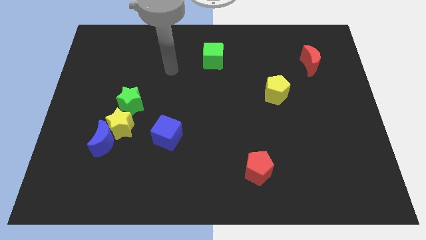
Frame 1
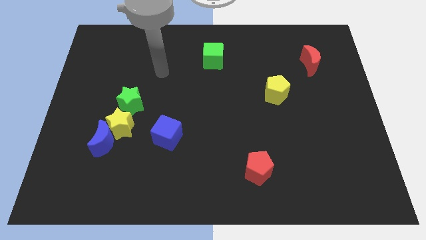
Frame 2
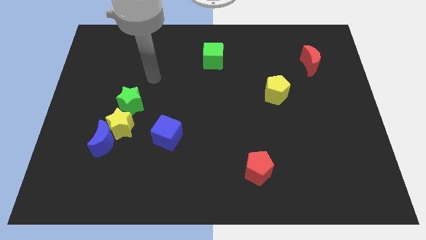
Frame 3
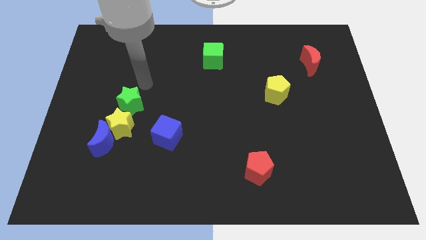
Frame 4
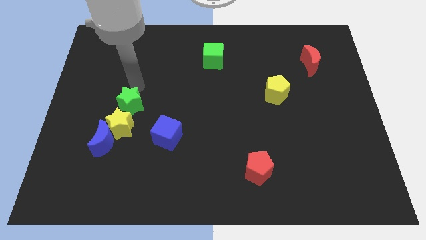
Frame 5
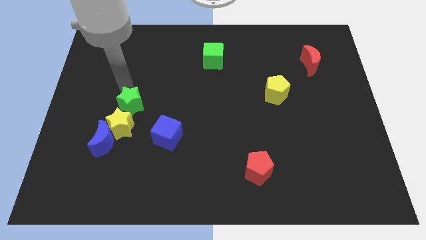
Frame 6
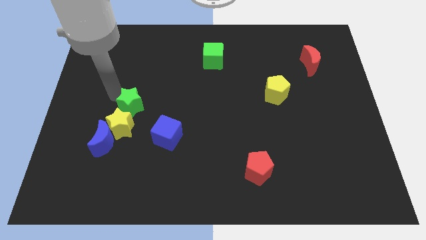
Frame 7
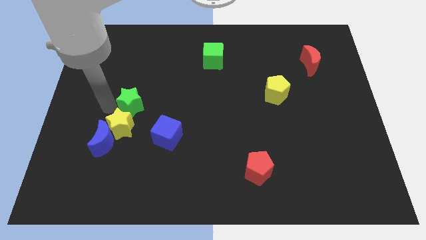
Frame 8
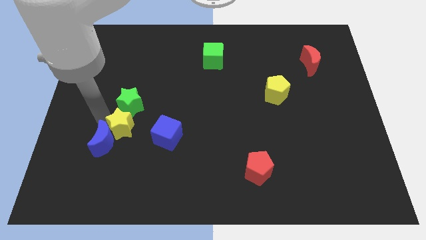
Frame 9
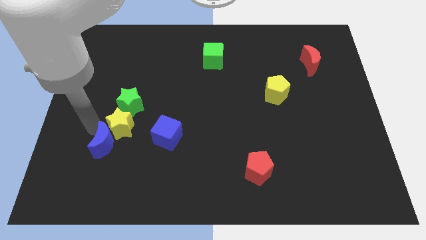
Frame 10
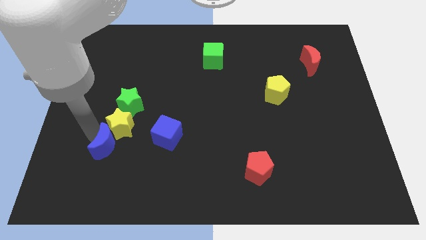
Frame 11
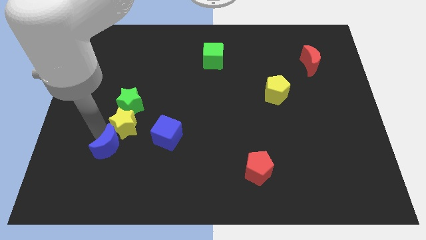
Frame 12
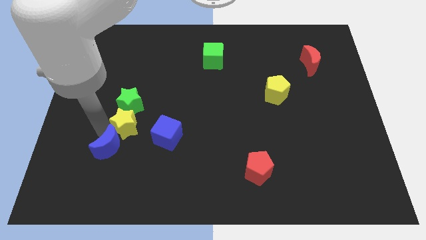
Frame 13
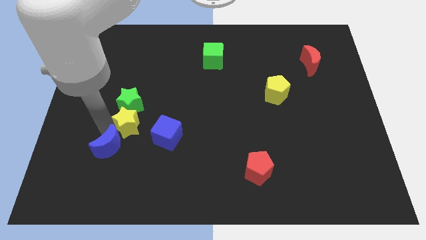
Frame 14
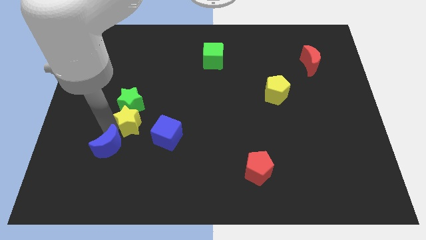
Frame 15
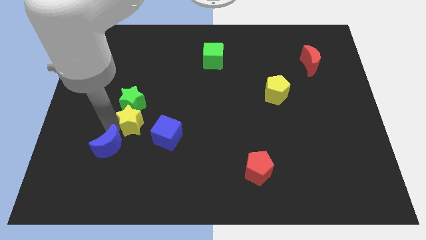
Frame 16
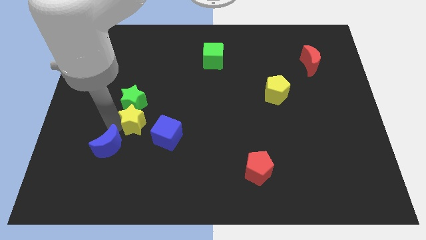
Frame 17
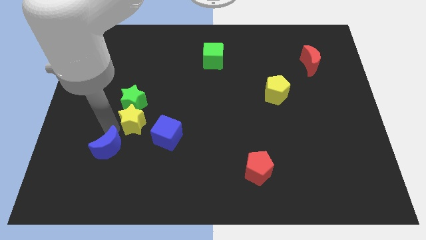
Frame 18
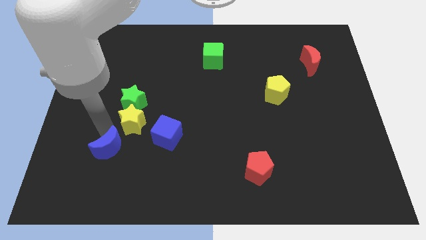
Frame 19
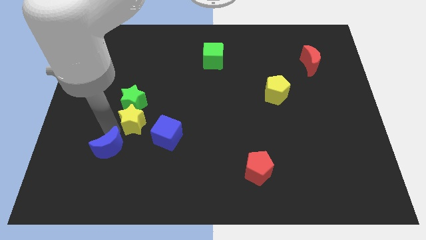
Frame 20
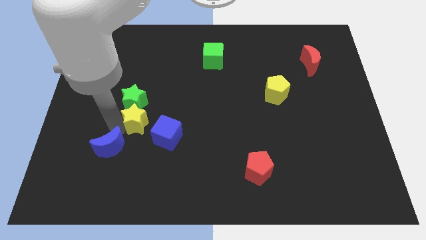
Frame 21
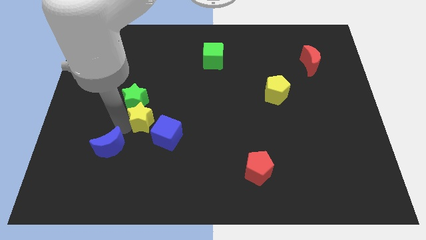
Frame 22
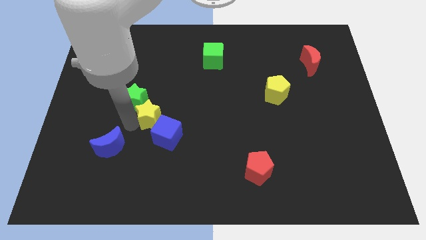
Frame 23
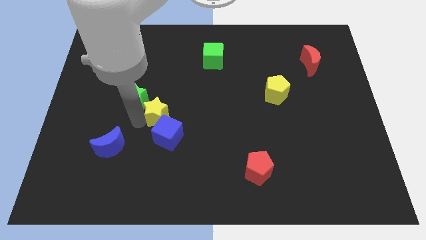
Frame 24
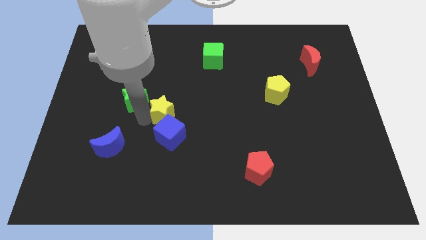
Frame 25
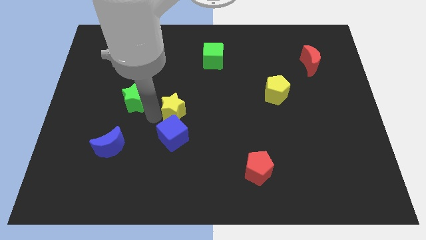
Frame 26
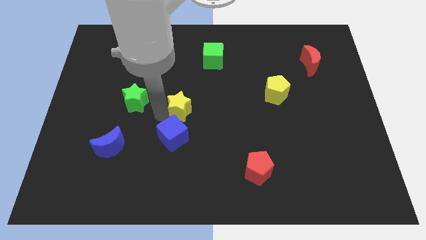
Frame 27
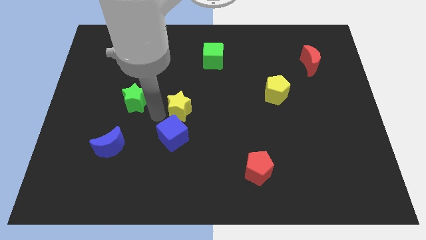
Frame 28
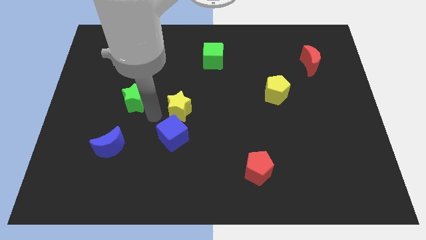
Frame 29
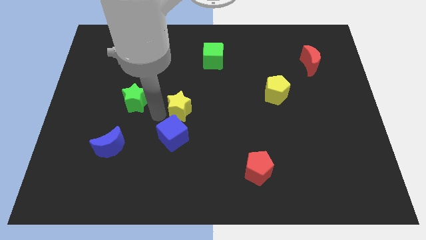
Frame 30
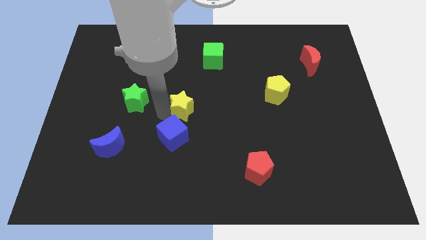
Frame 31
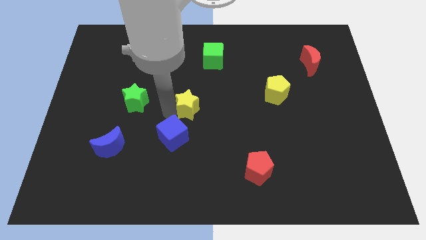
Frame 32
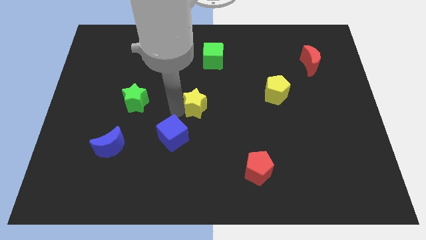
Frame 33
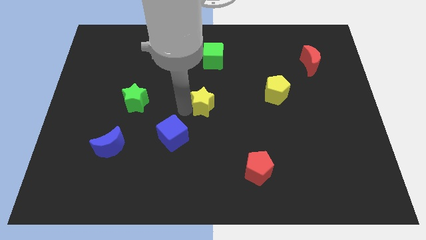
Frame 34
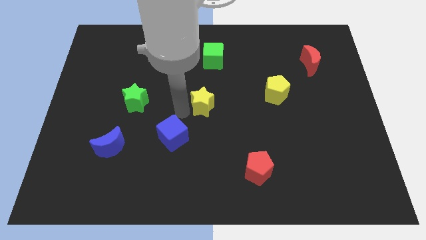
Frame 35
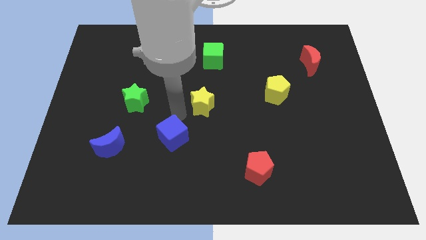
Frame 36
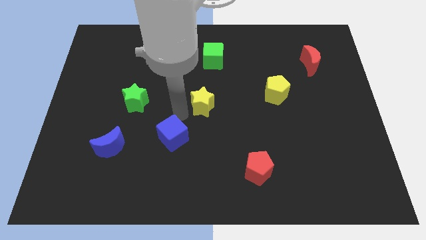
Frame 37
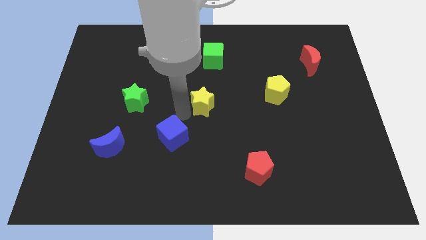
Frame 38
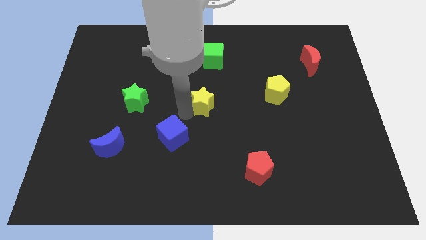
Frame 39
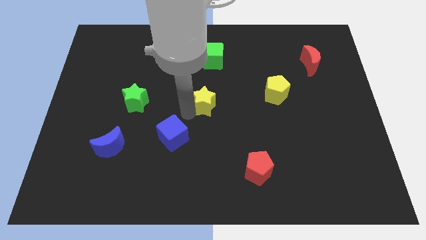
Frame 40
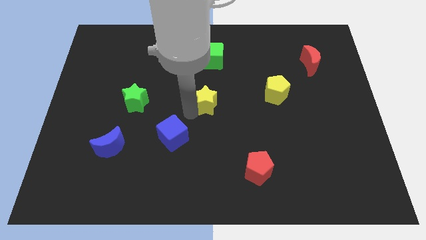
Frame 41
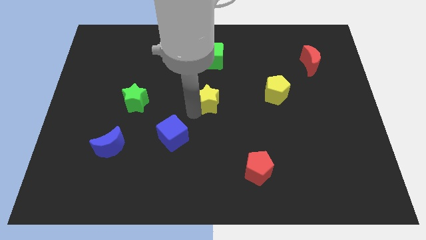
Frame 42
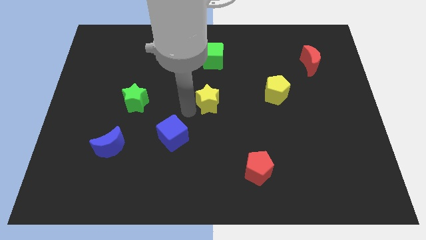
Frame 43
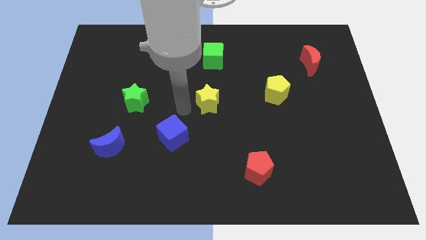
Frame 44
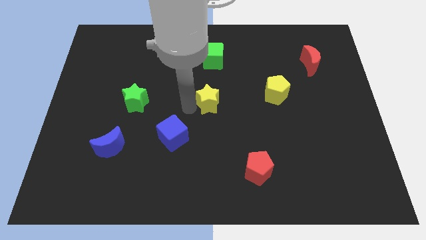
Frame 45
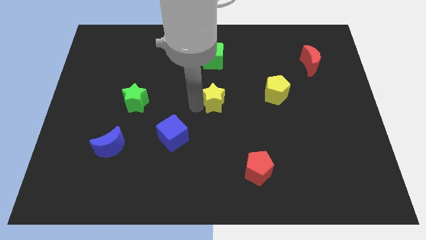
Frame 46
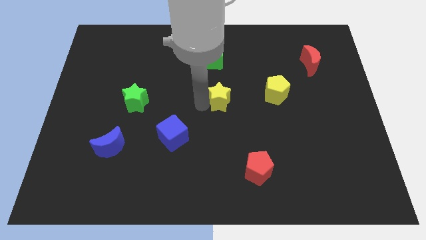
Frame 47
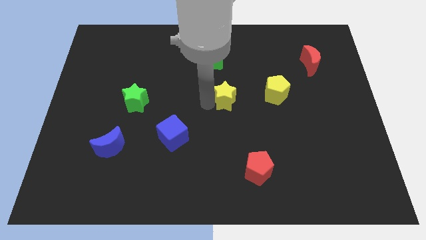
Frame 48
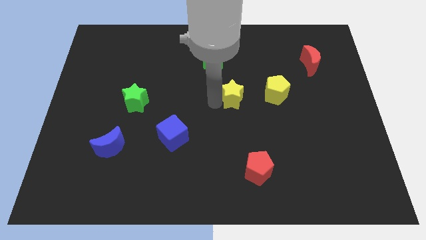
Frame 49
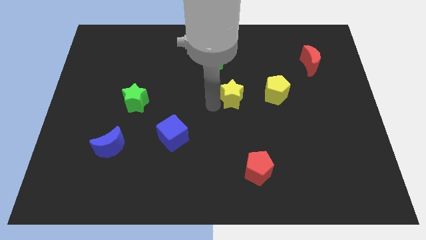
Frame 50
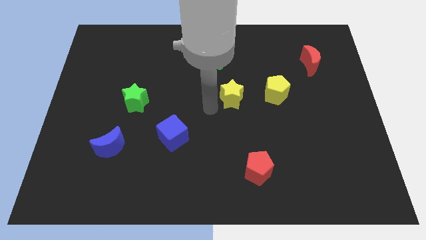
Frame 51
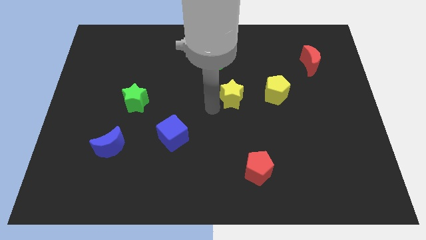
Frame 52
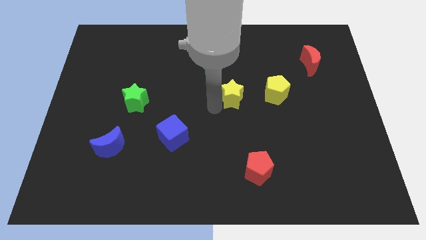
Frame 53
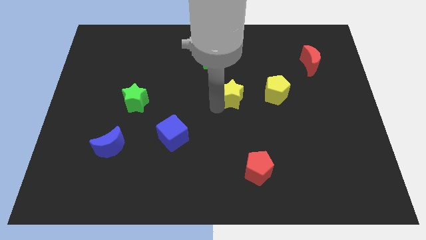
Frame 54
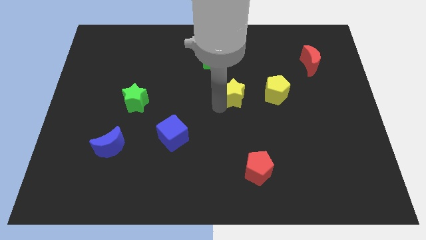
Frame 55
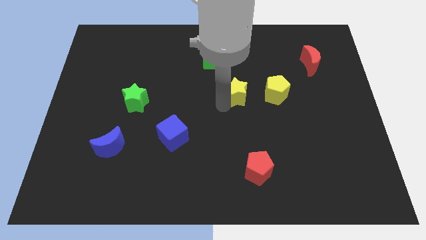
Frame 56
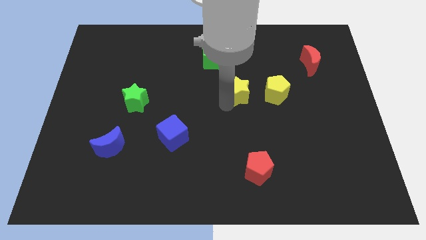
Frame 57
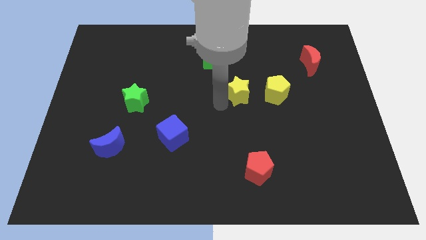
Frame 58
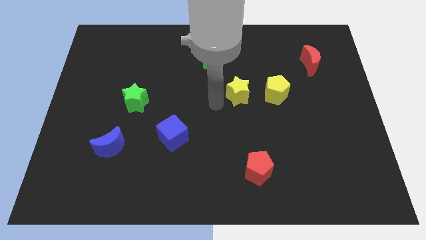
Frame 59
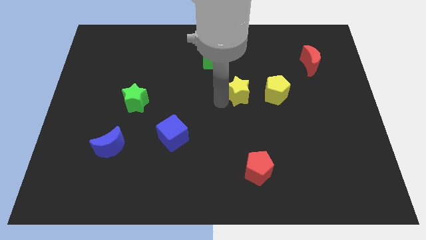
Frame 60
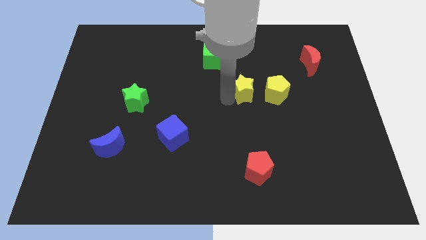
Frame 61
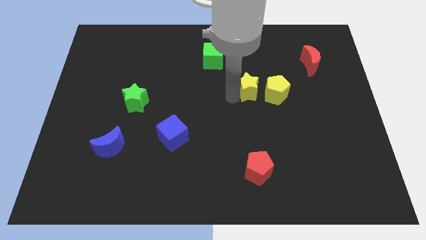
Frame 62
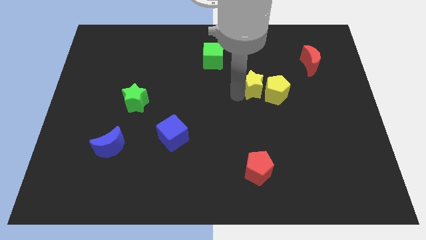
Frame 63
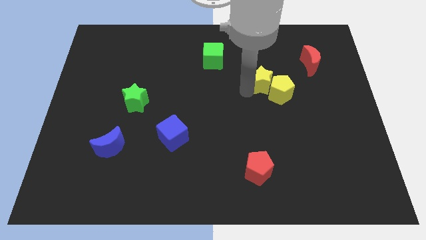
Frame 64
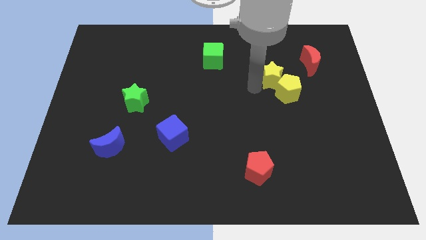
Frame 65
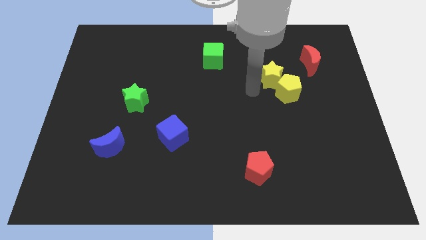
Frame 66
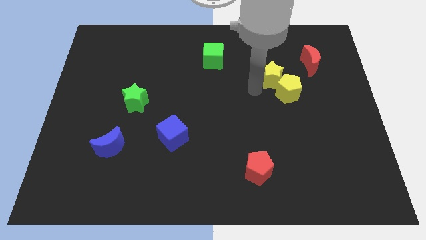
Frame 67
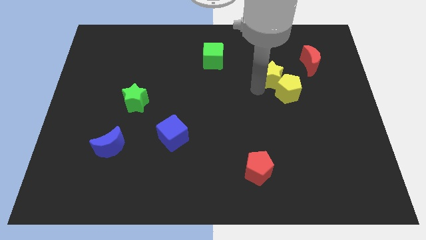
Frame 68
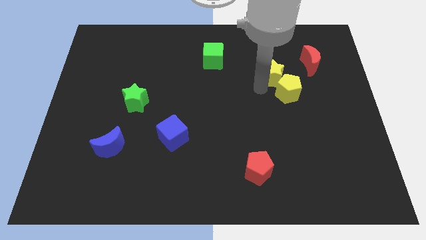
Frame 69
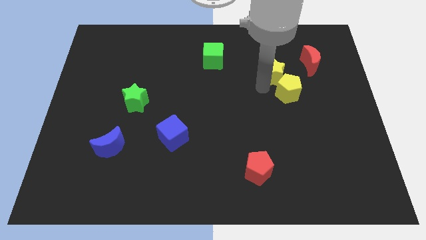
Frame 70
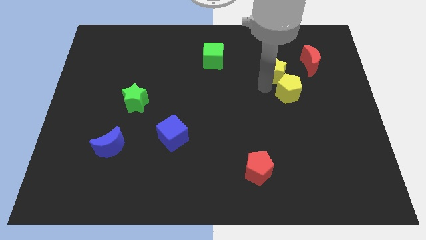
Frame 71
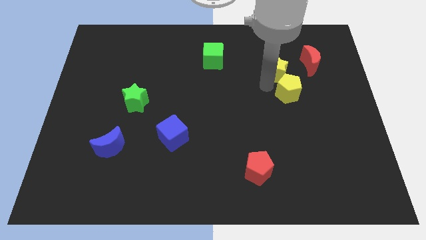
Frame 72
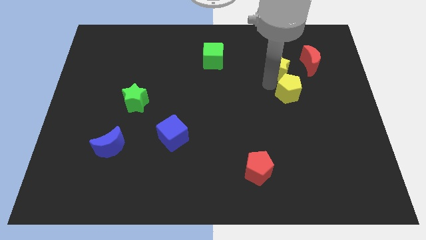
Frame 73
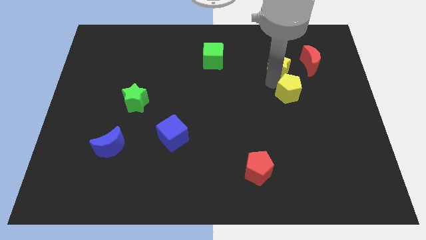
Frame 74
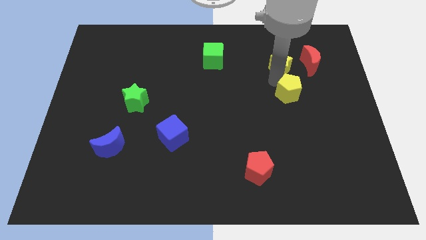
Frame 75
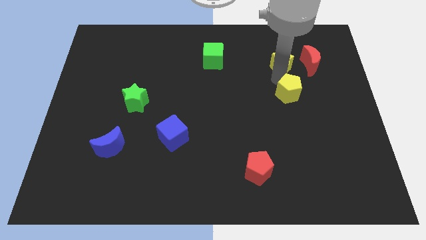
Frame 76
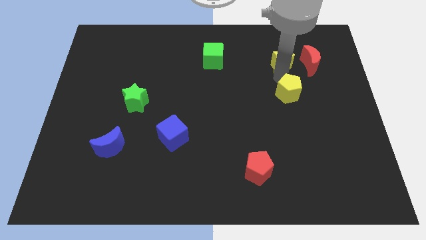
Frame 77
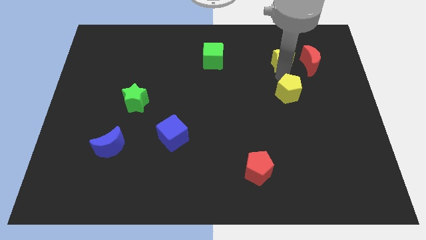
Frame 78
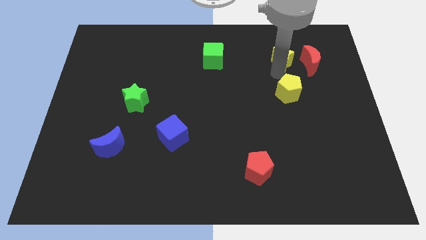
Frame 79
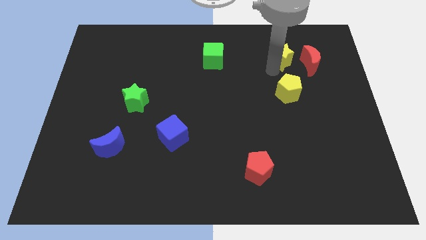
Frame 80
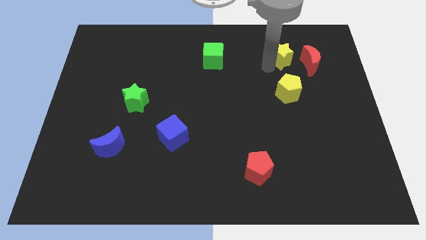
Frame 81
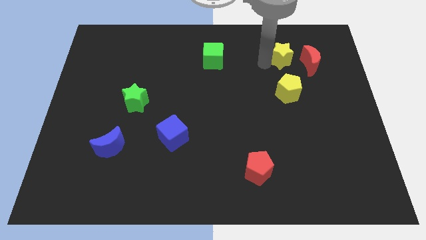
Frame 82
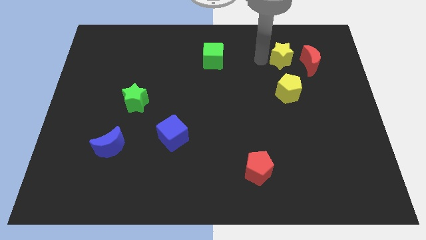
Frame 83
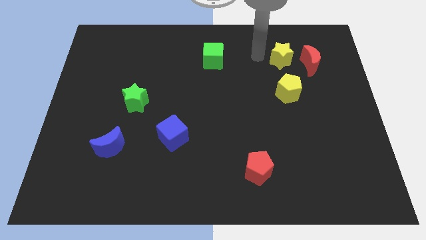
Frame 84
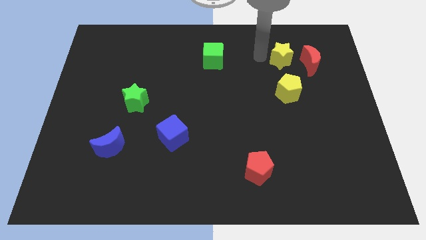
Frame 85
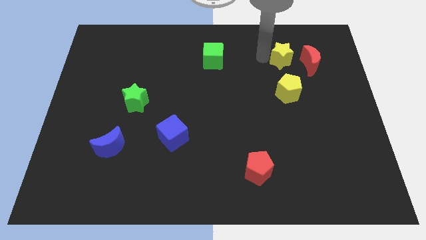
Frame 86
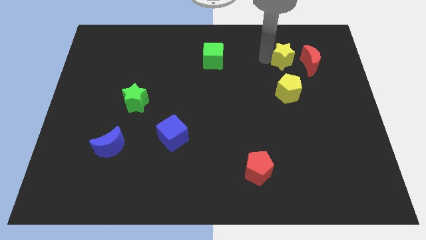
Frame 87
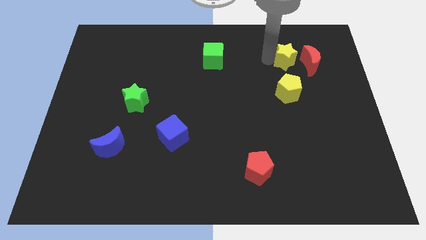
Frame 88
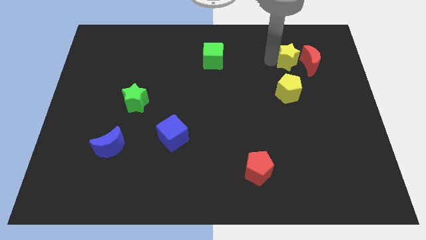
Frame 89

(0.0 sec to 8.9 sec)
push the yellow star towards the red moon
